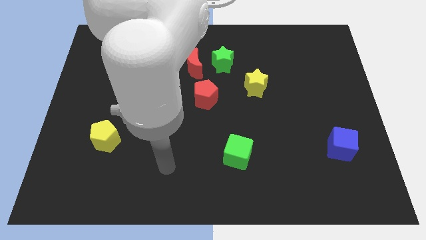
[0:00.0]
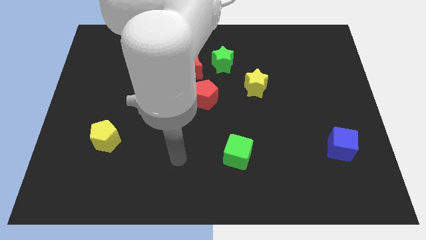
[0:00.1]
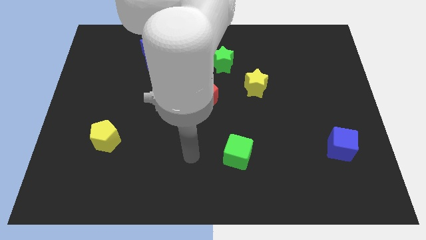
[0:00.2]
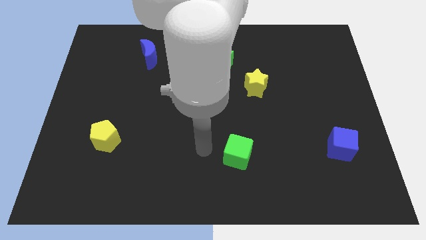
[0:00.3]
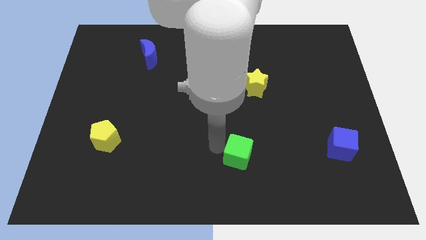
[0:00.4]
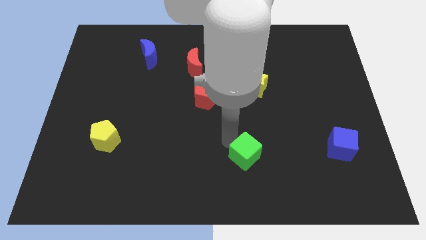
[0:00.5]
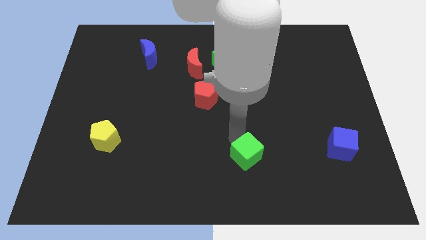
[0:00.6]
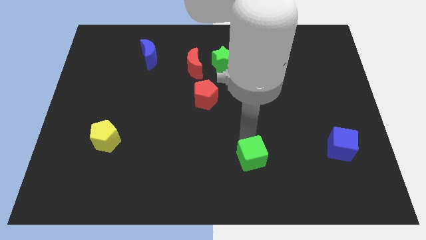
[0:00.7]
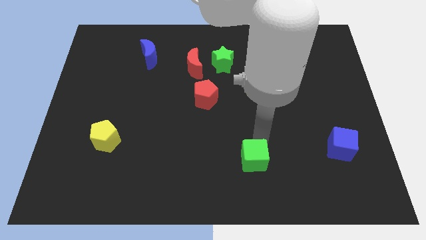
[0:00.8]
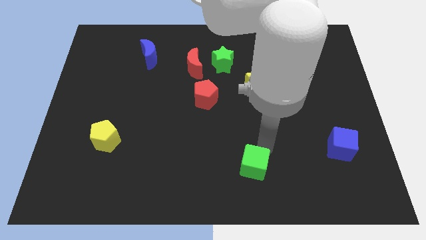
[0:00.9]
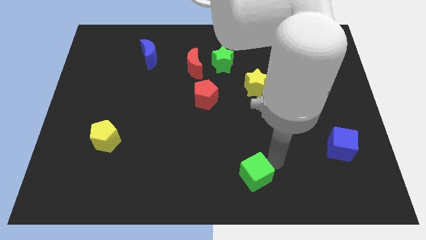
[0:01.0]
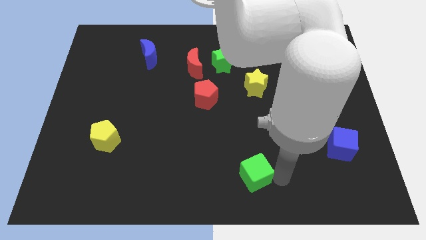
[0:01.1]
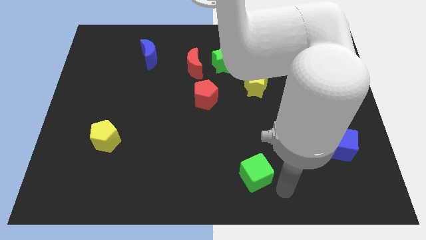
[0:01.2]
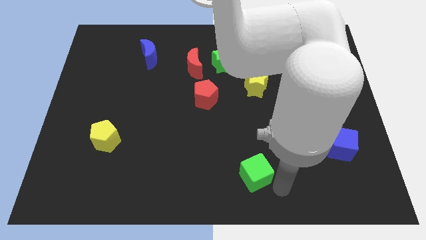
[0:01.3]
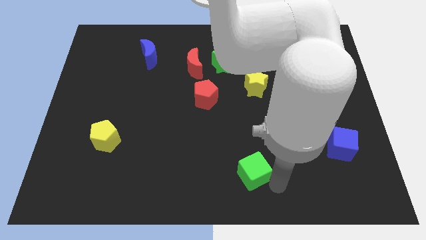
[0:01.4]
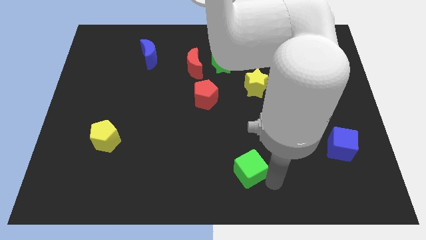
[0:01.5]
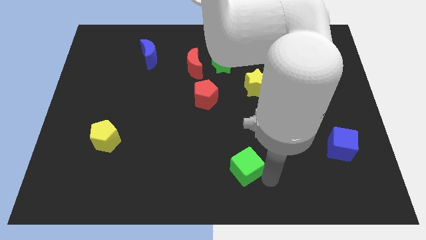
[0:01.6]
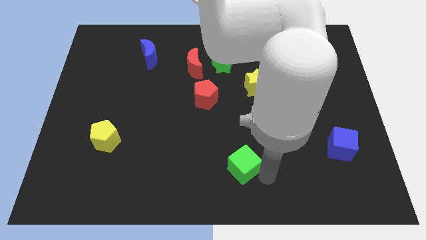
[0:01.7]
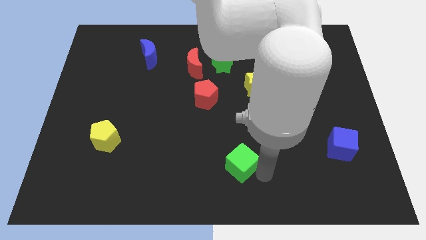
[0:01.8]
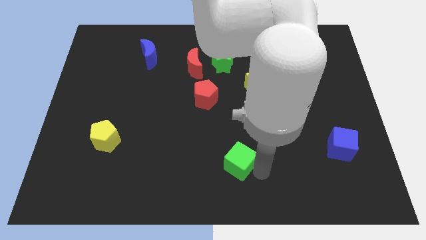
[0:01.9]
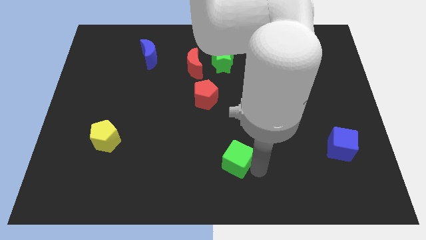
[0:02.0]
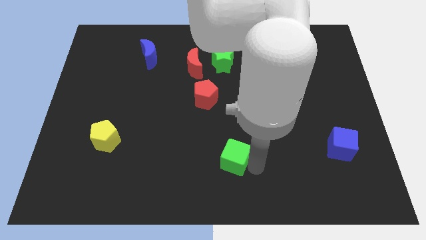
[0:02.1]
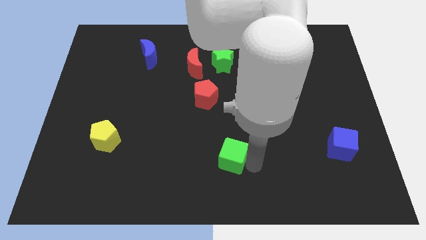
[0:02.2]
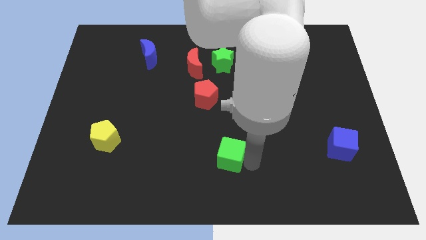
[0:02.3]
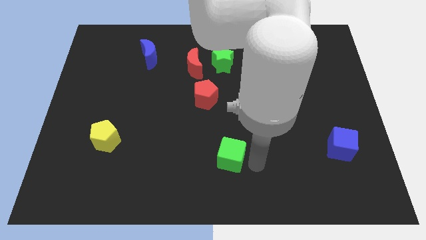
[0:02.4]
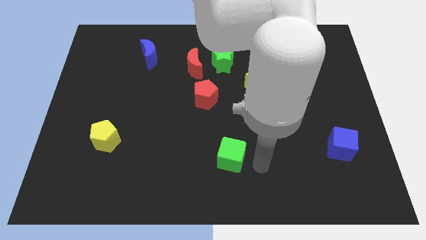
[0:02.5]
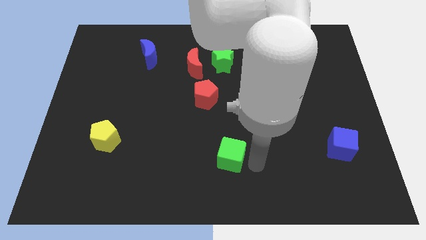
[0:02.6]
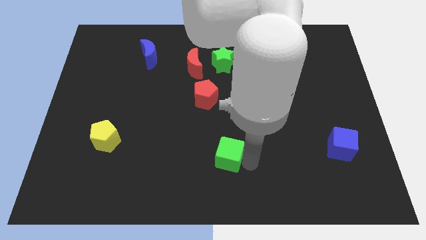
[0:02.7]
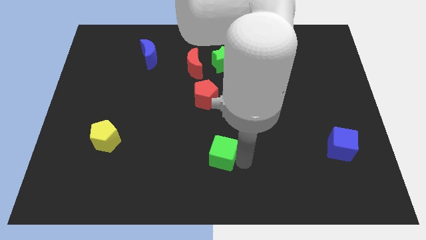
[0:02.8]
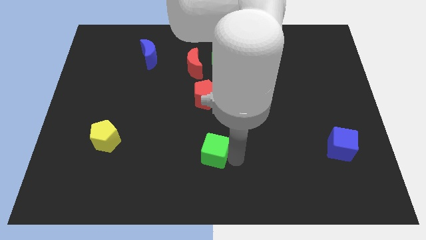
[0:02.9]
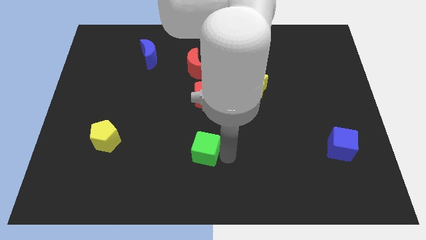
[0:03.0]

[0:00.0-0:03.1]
slide the green cube to the left a bit

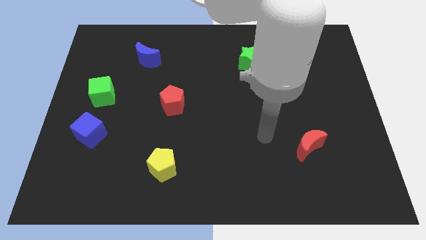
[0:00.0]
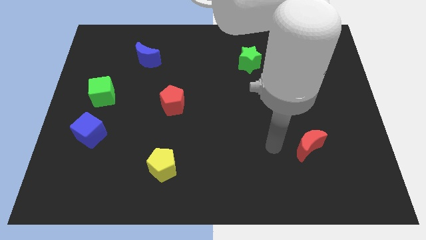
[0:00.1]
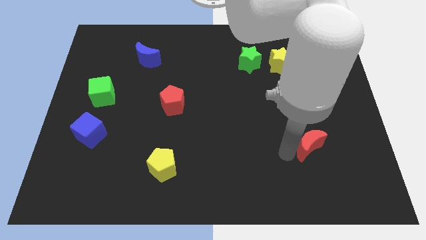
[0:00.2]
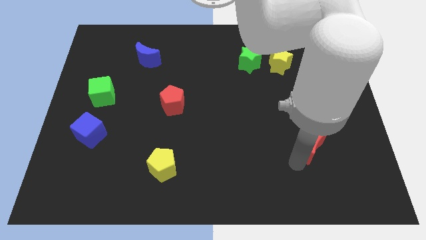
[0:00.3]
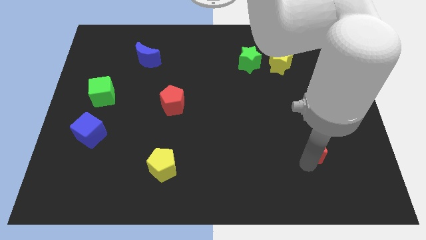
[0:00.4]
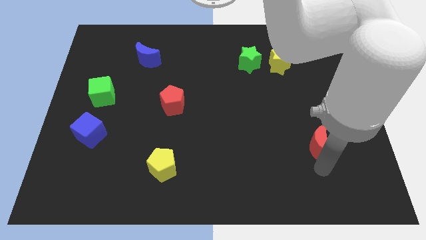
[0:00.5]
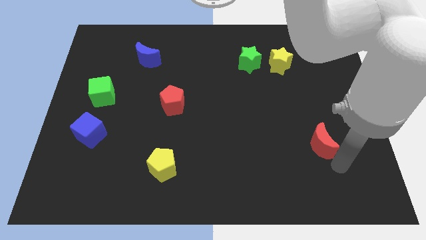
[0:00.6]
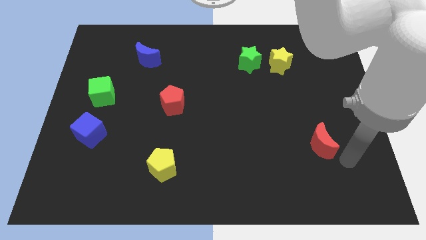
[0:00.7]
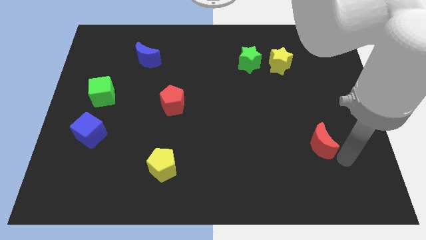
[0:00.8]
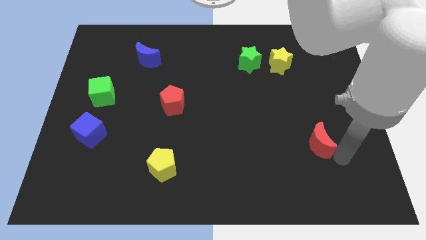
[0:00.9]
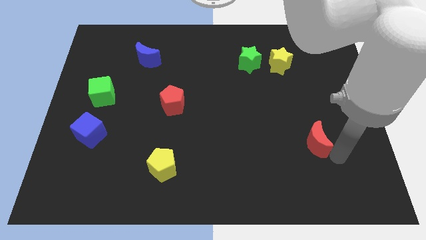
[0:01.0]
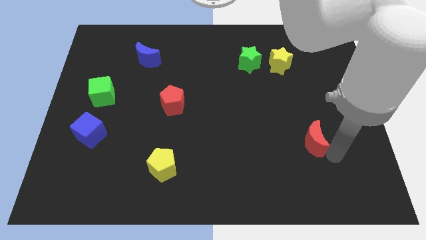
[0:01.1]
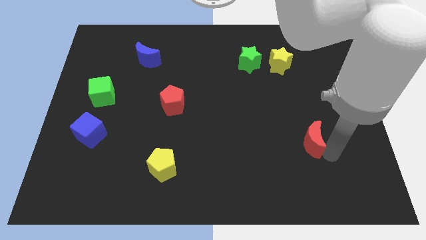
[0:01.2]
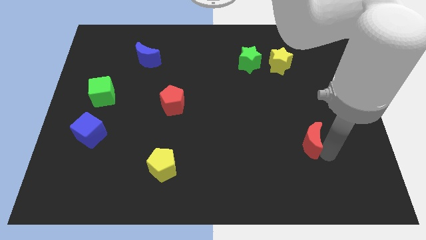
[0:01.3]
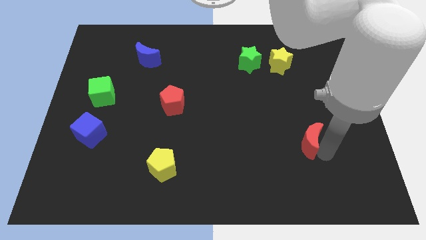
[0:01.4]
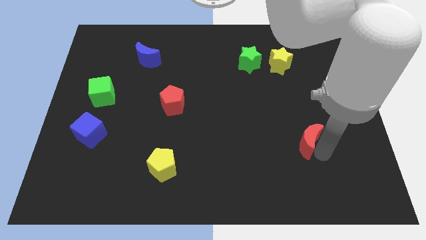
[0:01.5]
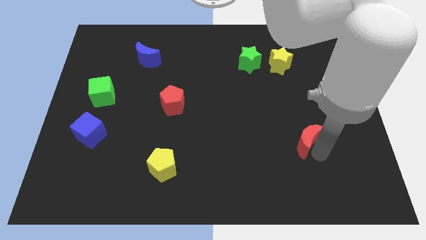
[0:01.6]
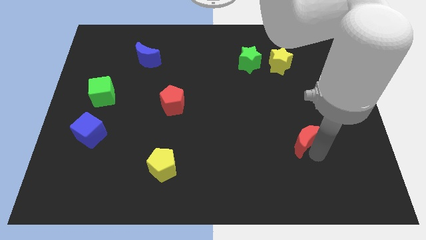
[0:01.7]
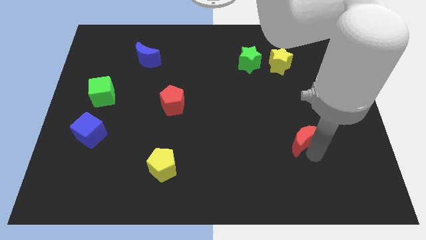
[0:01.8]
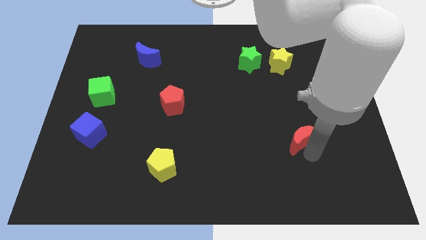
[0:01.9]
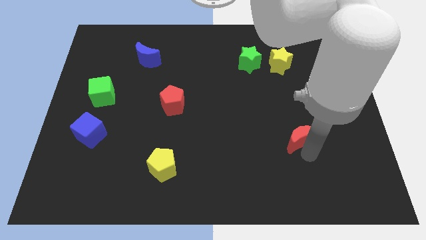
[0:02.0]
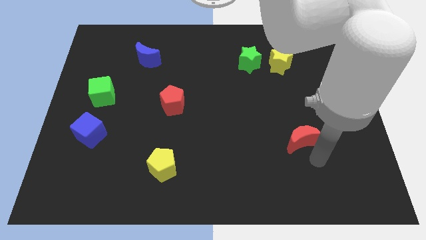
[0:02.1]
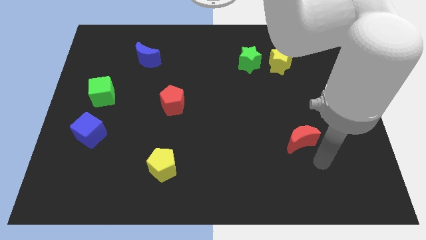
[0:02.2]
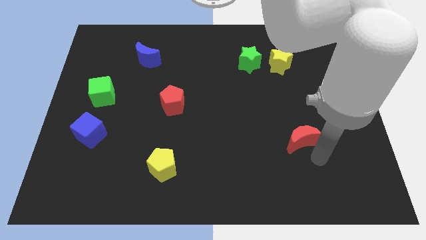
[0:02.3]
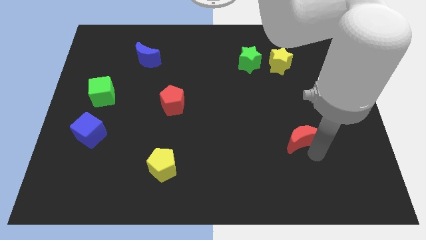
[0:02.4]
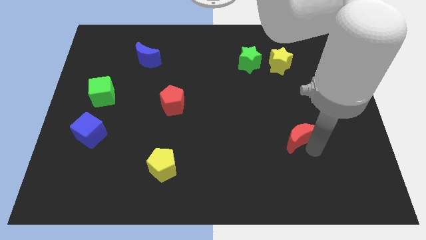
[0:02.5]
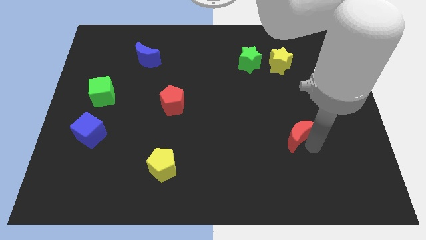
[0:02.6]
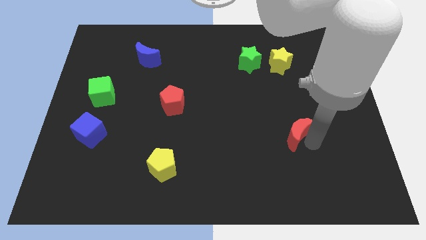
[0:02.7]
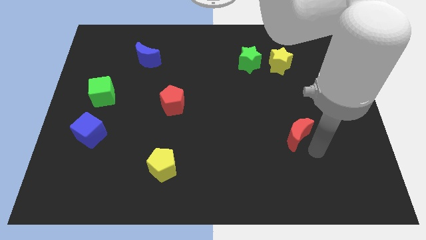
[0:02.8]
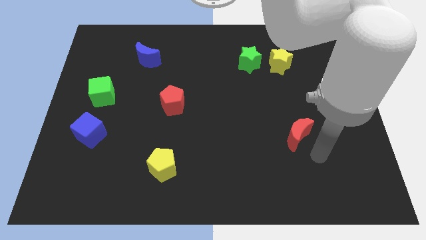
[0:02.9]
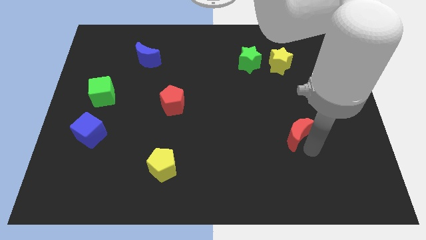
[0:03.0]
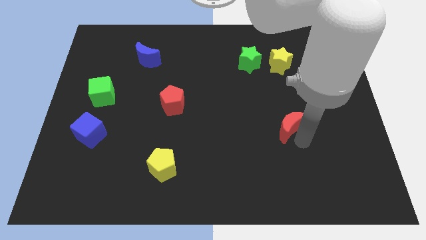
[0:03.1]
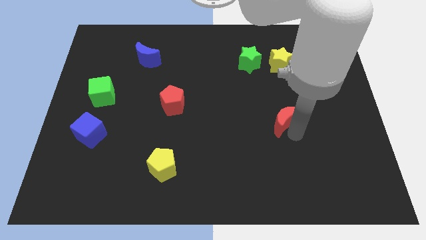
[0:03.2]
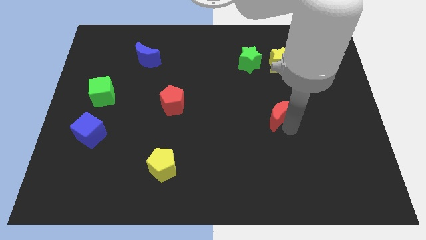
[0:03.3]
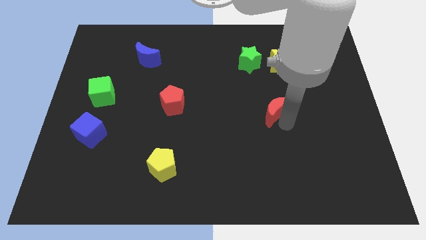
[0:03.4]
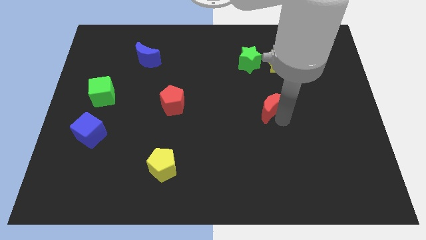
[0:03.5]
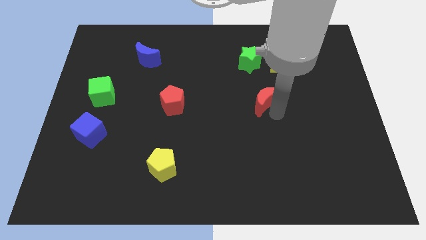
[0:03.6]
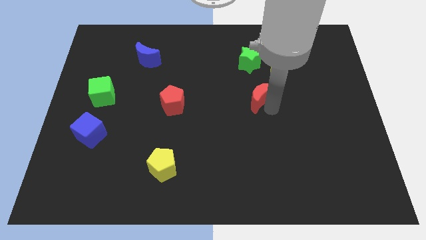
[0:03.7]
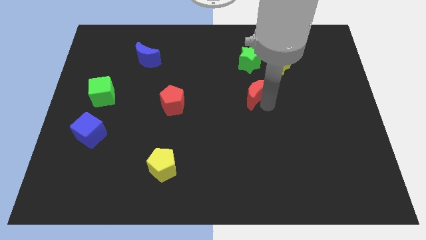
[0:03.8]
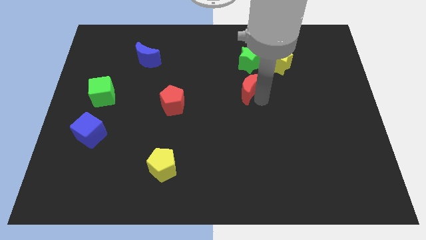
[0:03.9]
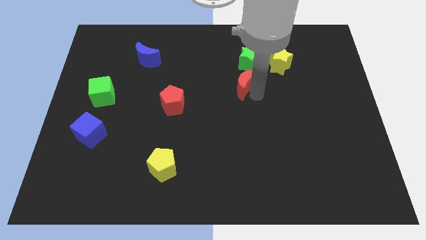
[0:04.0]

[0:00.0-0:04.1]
slide the red moon up and left diagonally

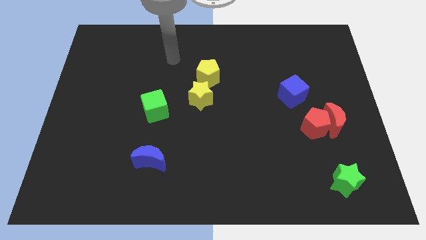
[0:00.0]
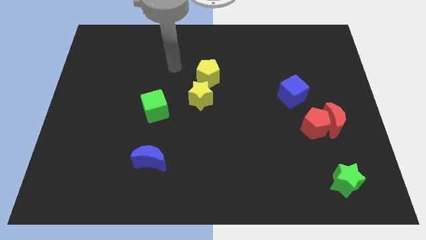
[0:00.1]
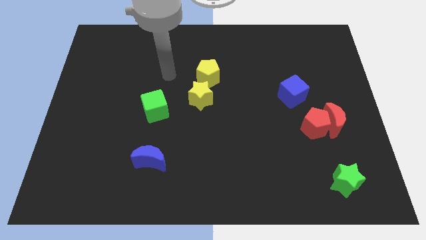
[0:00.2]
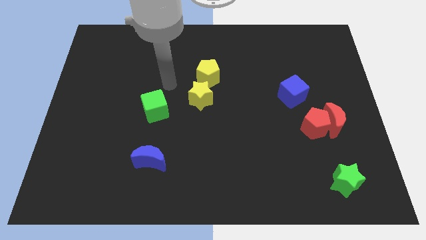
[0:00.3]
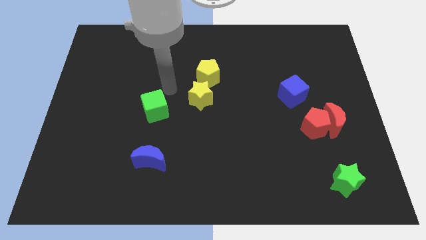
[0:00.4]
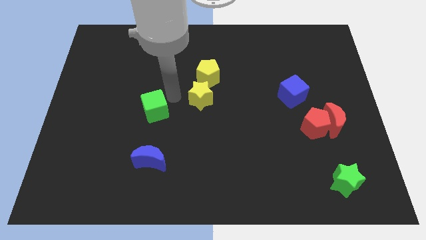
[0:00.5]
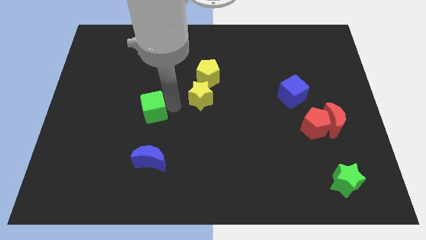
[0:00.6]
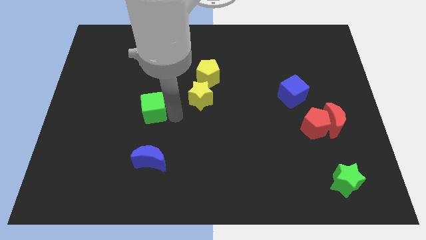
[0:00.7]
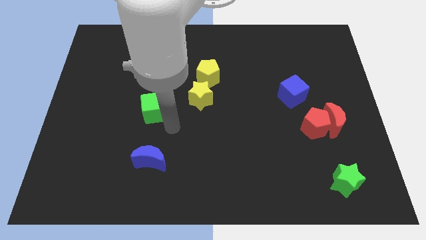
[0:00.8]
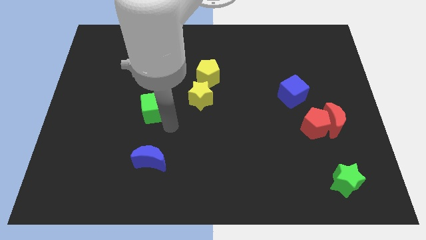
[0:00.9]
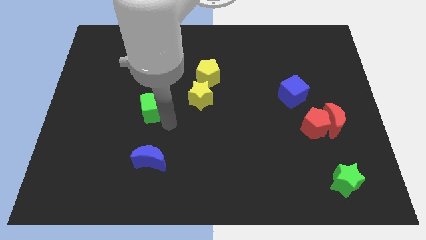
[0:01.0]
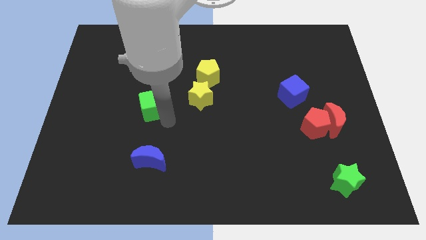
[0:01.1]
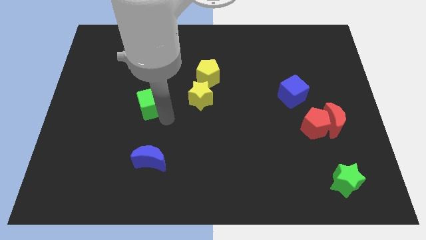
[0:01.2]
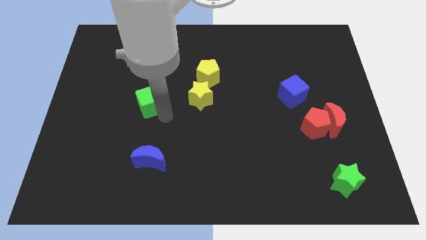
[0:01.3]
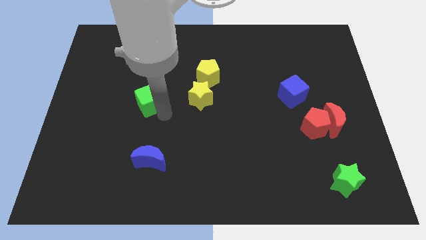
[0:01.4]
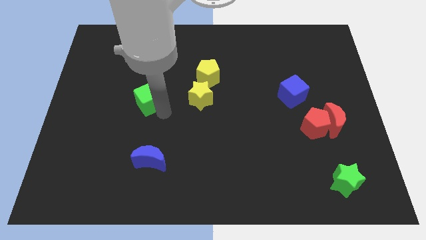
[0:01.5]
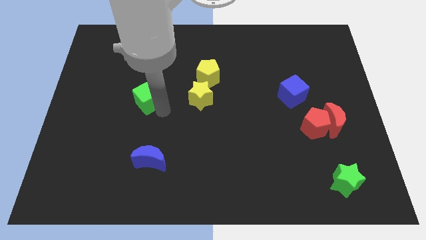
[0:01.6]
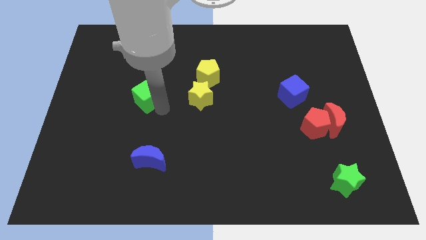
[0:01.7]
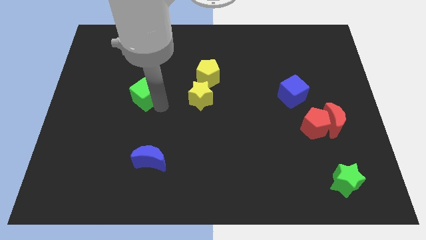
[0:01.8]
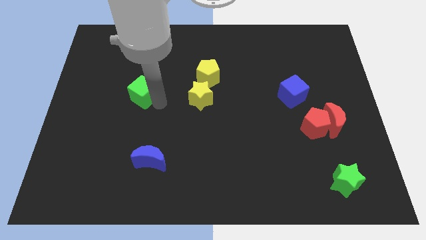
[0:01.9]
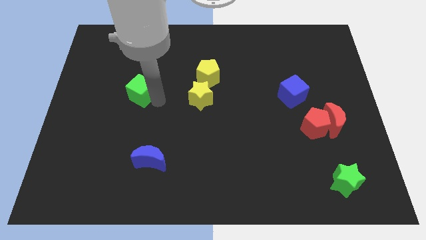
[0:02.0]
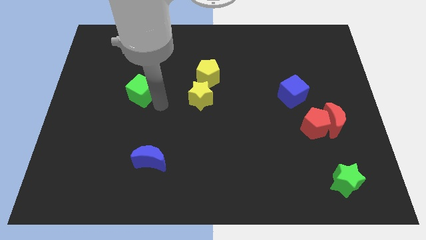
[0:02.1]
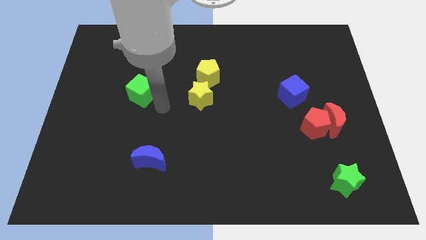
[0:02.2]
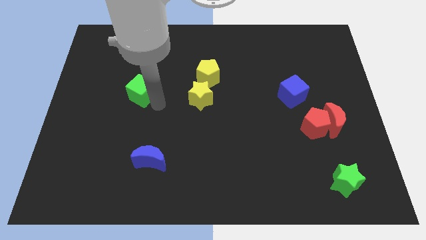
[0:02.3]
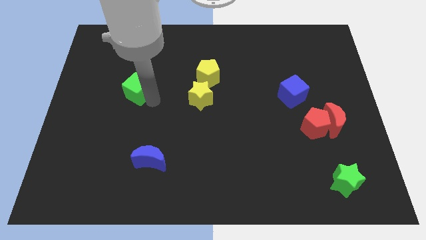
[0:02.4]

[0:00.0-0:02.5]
move the green cube a little bit upwards and left
